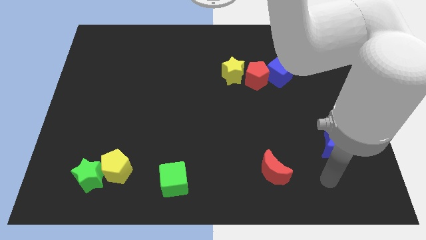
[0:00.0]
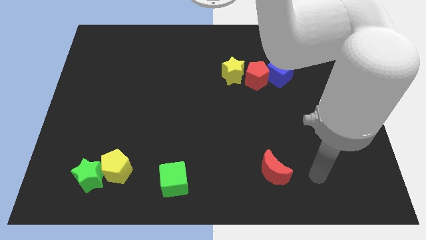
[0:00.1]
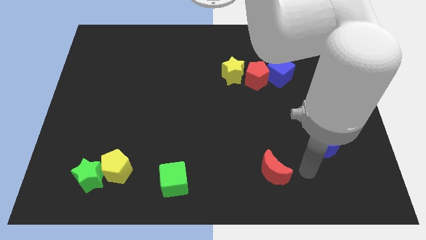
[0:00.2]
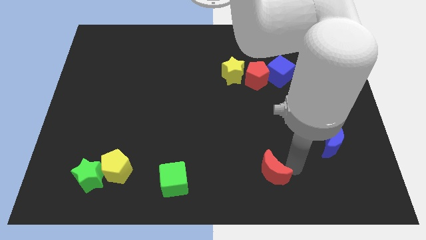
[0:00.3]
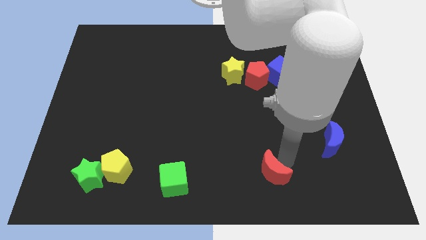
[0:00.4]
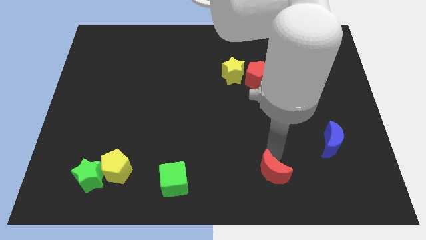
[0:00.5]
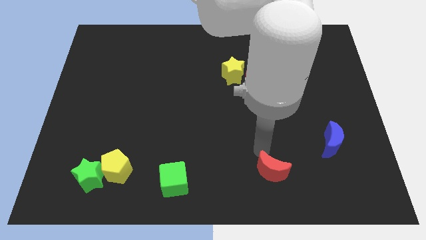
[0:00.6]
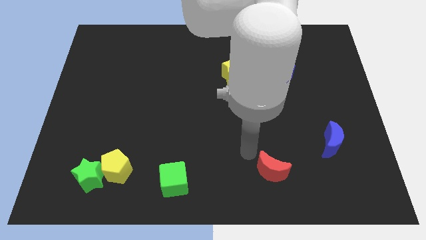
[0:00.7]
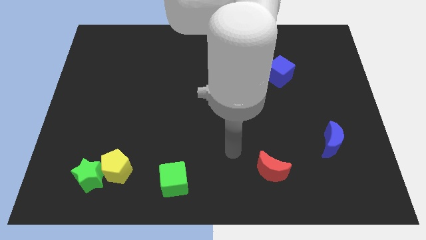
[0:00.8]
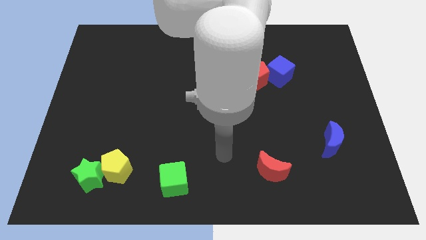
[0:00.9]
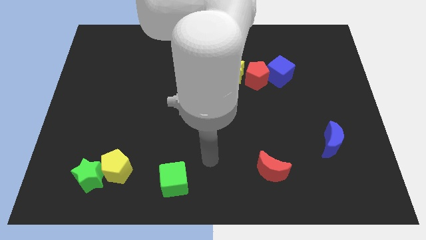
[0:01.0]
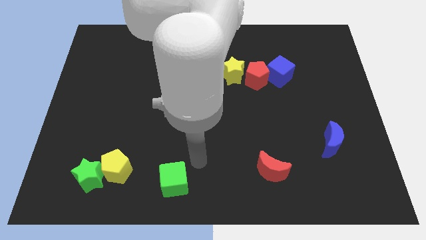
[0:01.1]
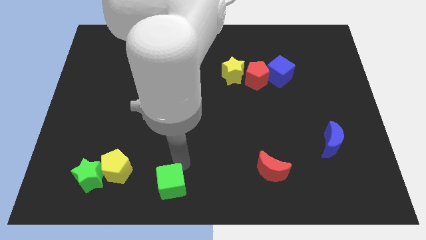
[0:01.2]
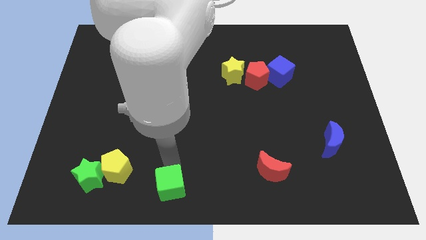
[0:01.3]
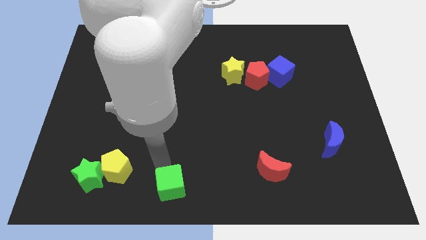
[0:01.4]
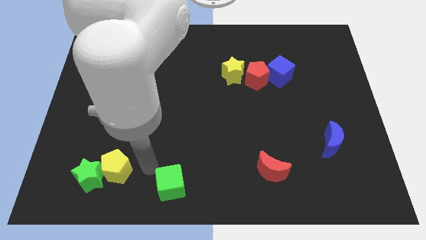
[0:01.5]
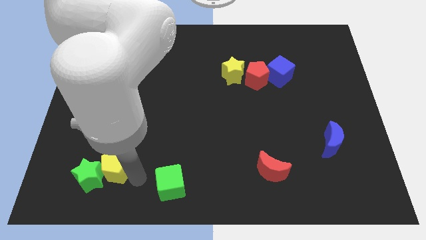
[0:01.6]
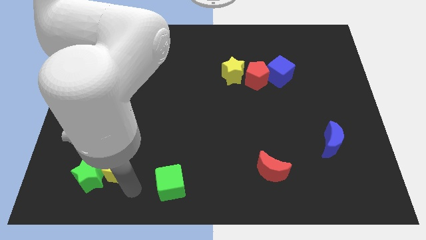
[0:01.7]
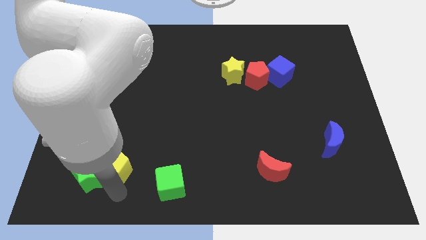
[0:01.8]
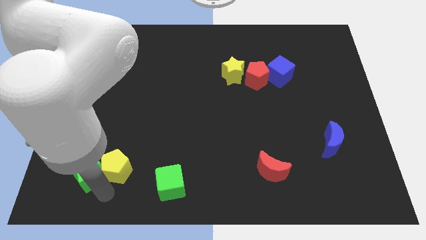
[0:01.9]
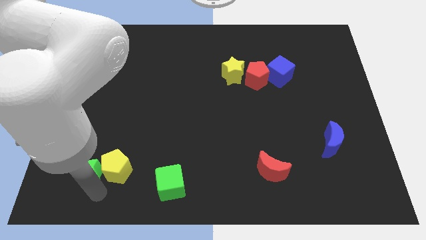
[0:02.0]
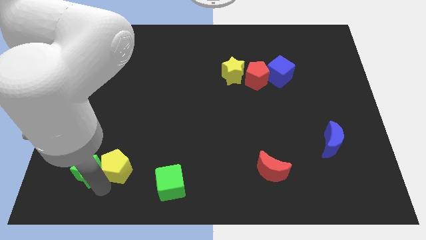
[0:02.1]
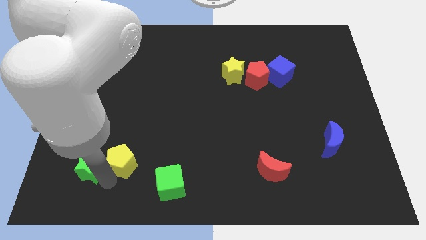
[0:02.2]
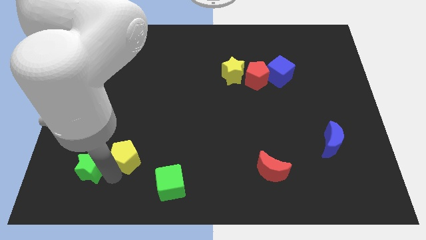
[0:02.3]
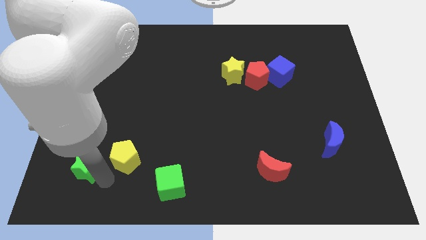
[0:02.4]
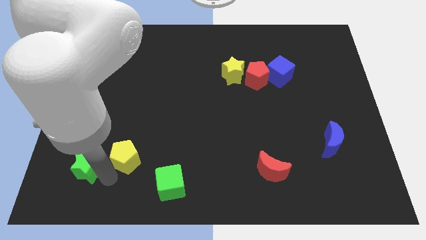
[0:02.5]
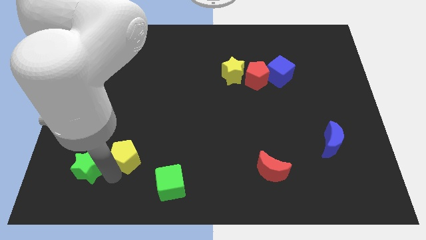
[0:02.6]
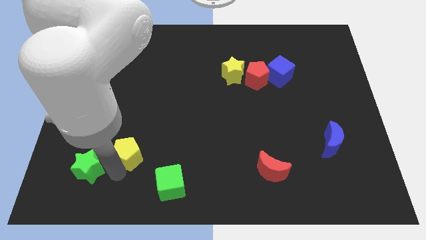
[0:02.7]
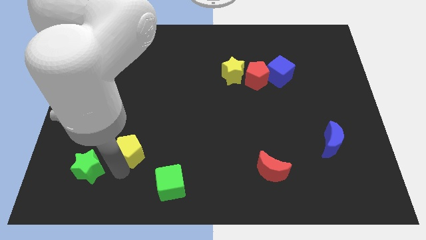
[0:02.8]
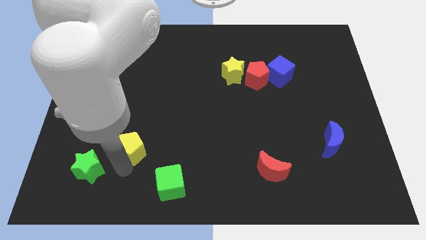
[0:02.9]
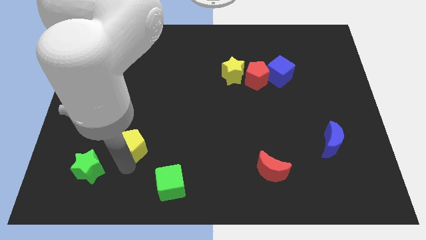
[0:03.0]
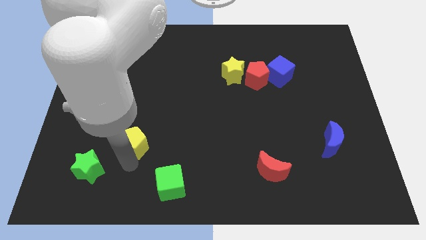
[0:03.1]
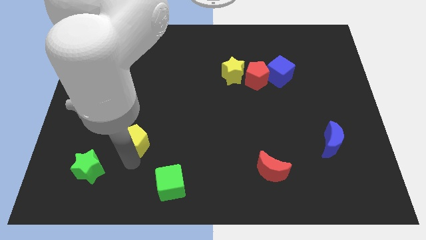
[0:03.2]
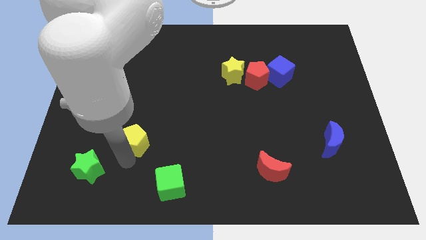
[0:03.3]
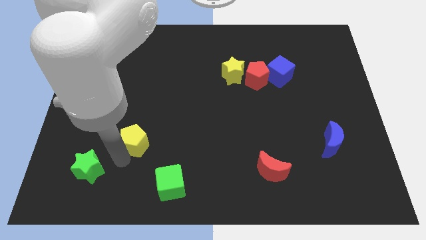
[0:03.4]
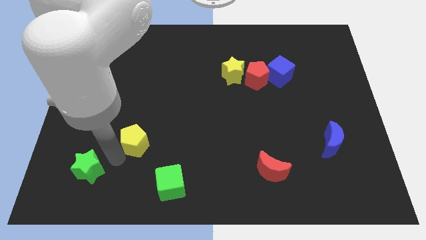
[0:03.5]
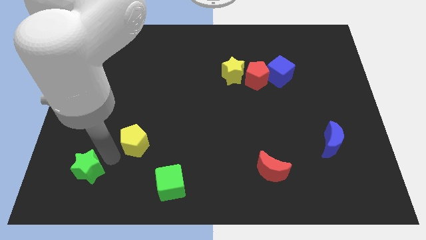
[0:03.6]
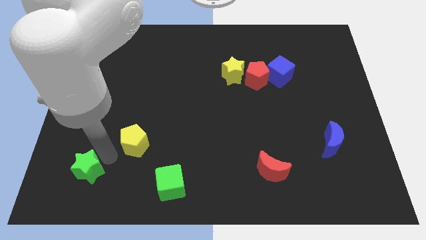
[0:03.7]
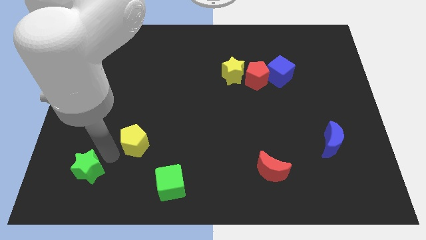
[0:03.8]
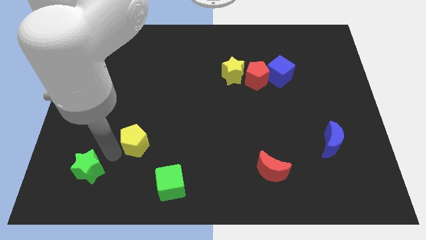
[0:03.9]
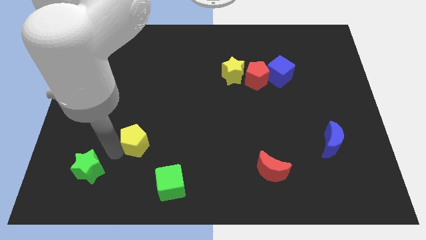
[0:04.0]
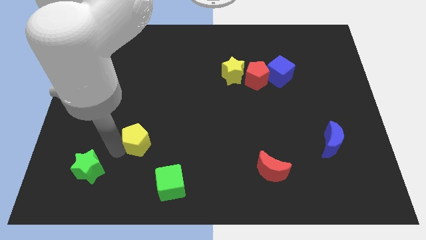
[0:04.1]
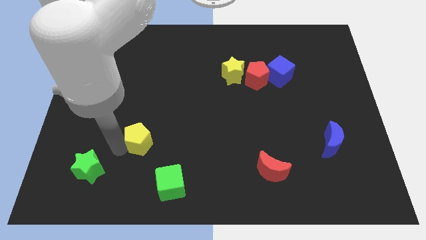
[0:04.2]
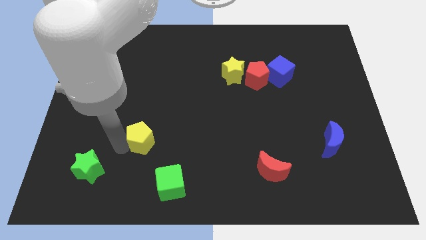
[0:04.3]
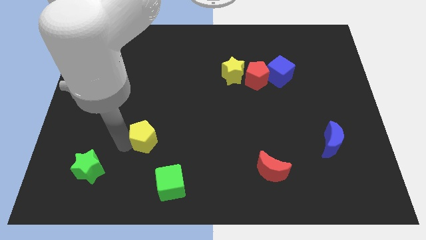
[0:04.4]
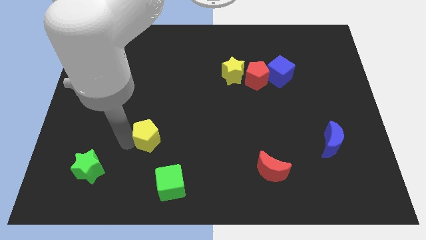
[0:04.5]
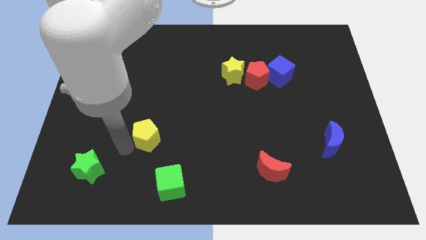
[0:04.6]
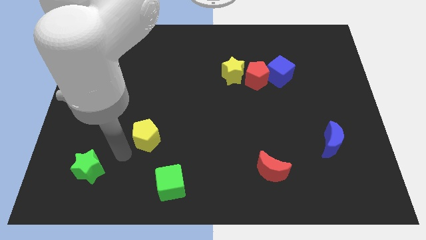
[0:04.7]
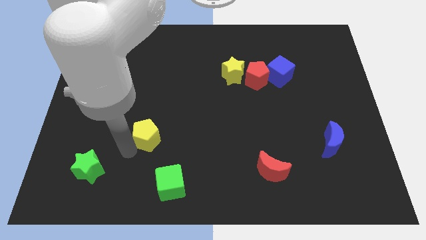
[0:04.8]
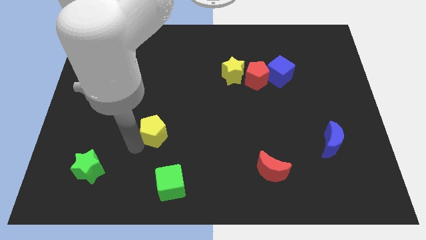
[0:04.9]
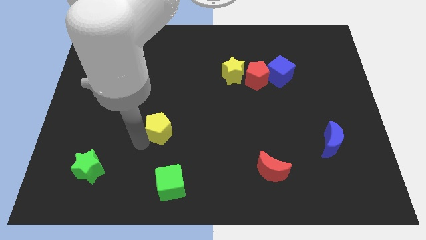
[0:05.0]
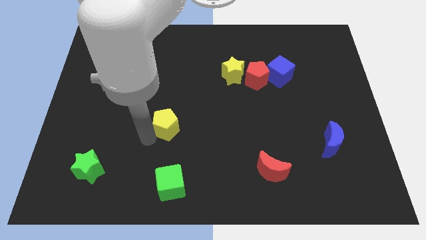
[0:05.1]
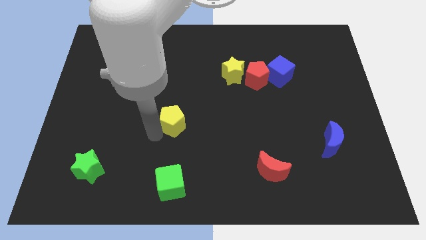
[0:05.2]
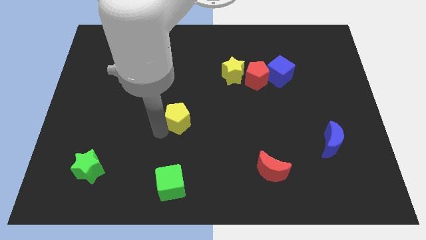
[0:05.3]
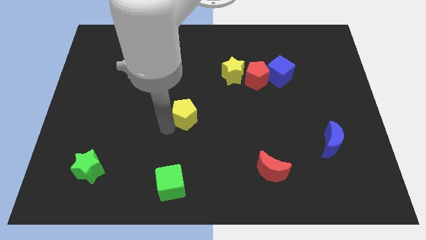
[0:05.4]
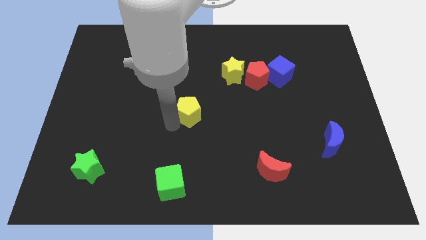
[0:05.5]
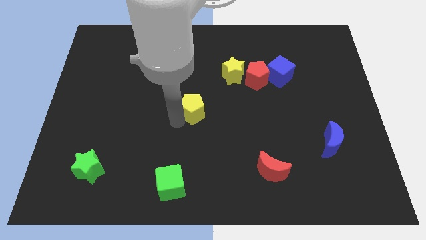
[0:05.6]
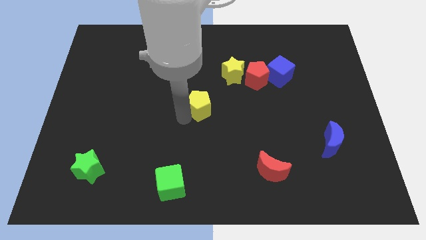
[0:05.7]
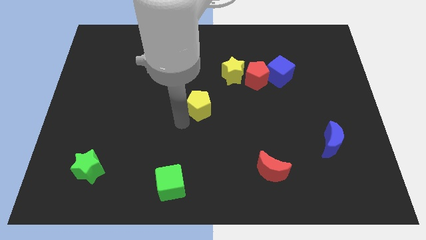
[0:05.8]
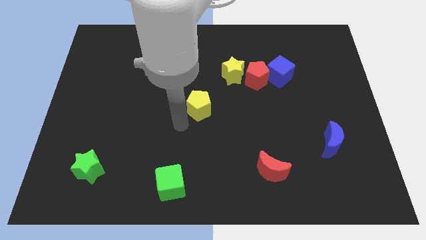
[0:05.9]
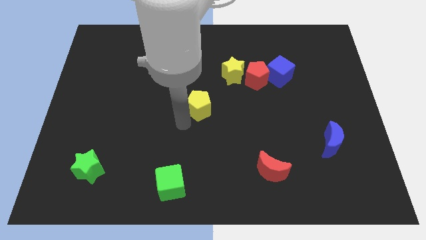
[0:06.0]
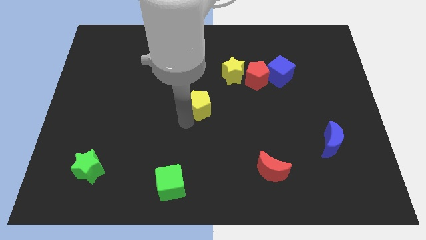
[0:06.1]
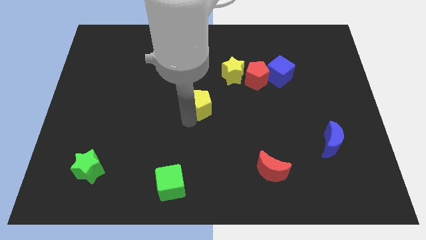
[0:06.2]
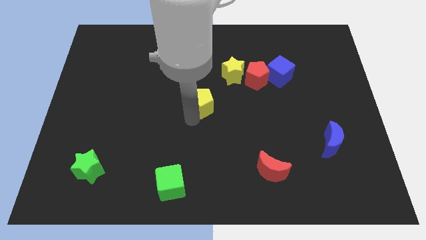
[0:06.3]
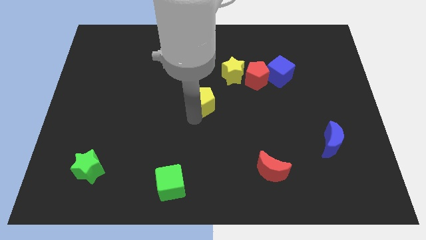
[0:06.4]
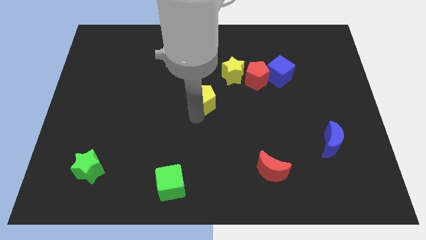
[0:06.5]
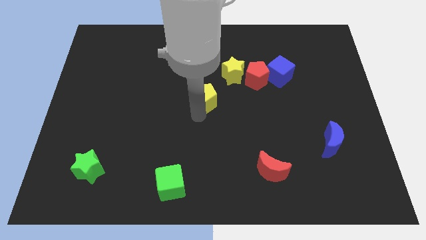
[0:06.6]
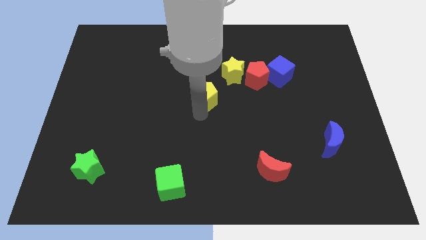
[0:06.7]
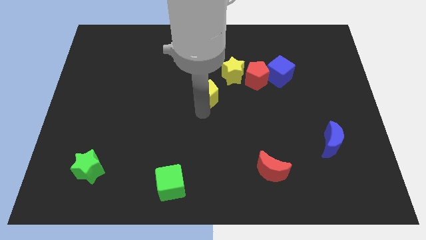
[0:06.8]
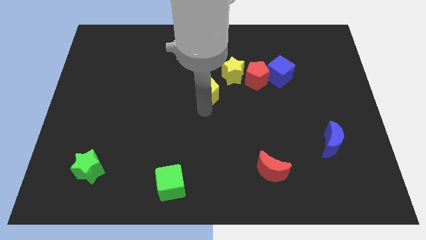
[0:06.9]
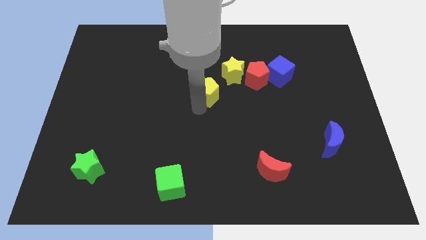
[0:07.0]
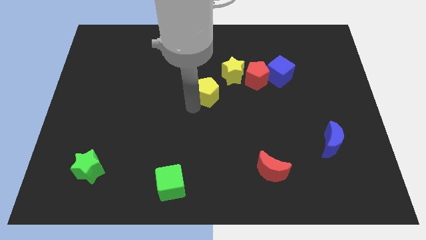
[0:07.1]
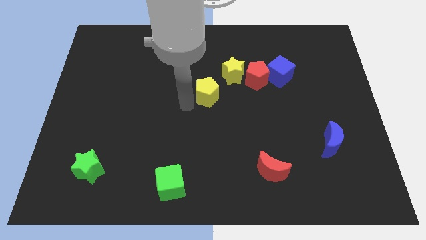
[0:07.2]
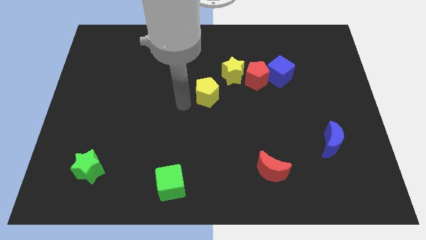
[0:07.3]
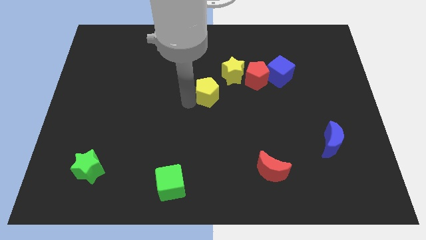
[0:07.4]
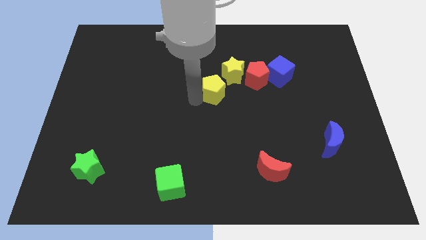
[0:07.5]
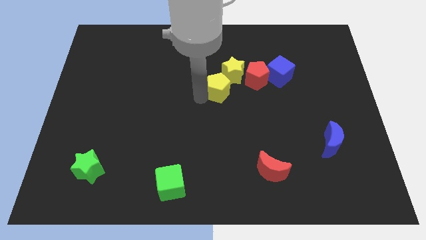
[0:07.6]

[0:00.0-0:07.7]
put the yellow pentagon to the yellow star

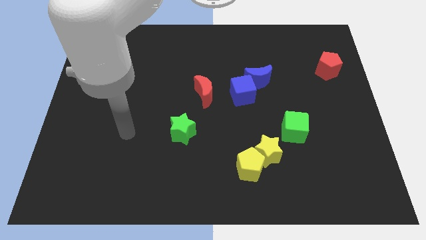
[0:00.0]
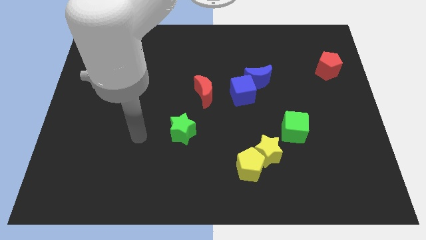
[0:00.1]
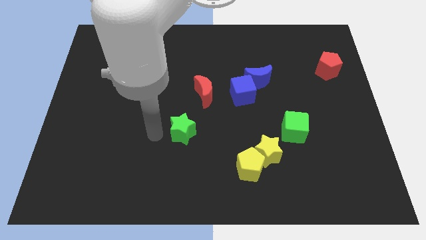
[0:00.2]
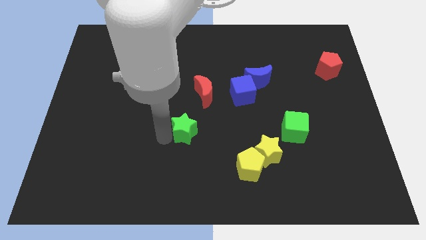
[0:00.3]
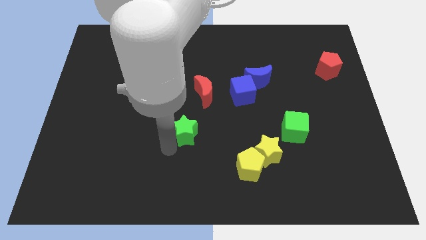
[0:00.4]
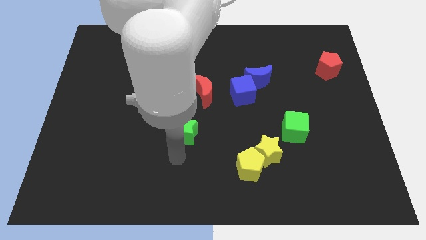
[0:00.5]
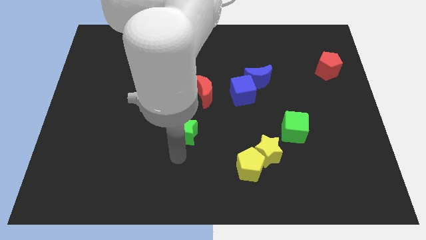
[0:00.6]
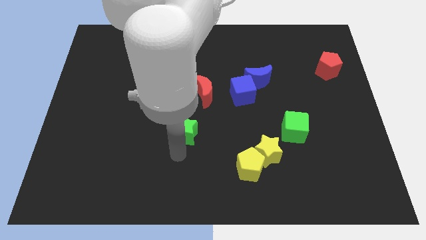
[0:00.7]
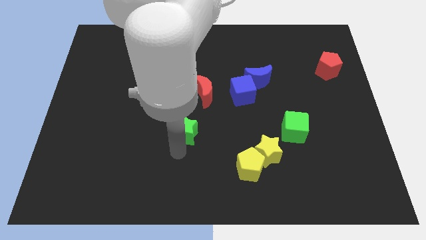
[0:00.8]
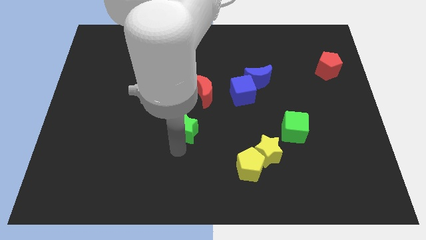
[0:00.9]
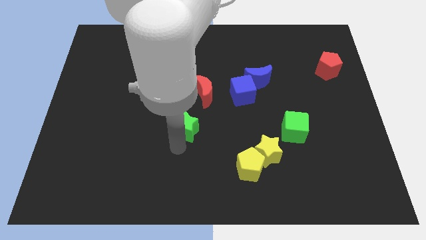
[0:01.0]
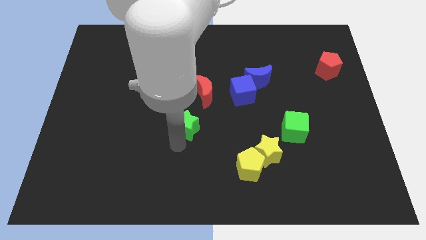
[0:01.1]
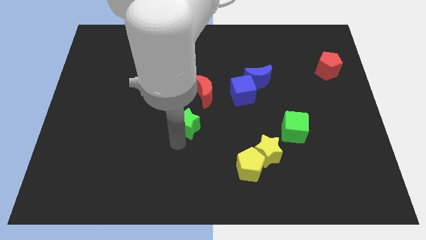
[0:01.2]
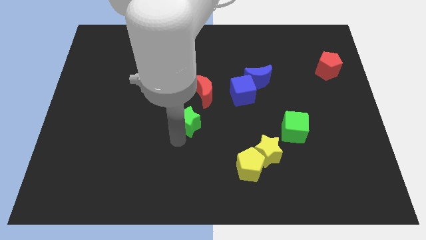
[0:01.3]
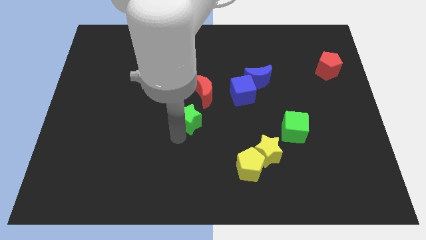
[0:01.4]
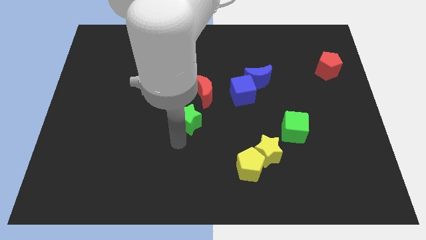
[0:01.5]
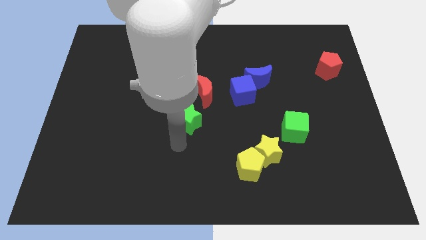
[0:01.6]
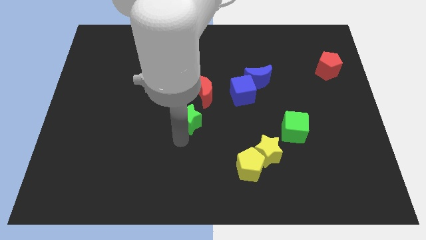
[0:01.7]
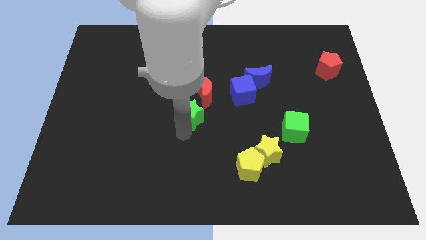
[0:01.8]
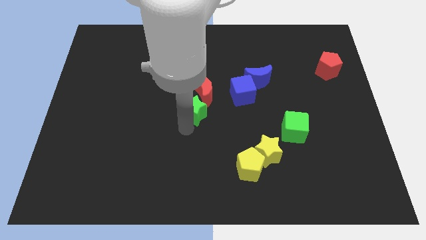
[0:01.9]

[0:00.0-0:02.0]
put the green star next to the red moon
